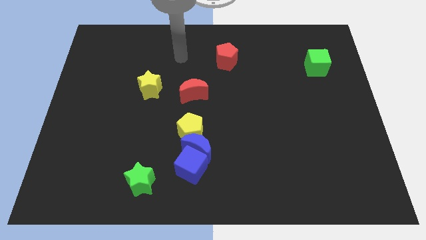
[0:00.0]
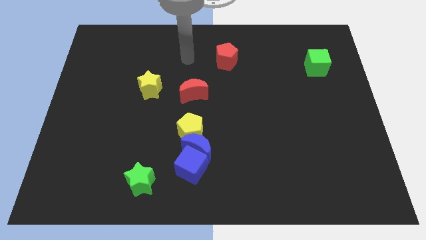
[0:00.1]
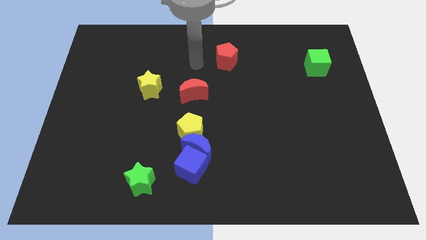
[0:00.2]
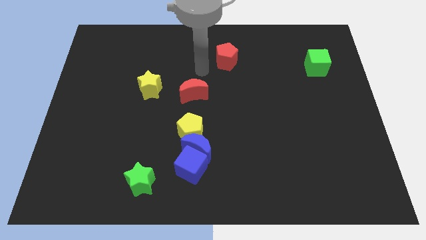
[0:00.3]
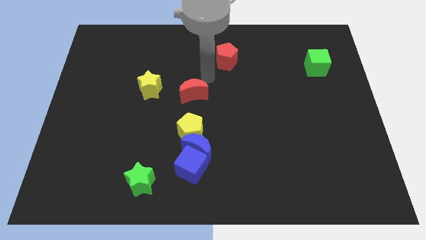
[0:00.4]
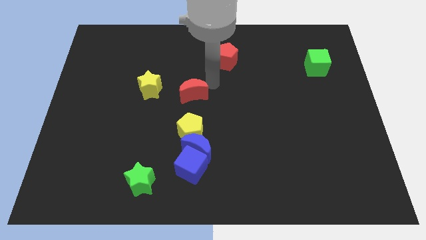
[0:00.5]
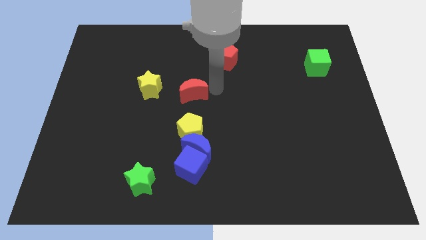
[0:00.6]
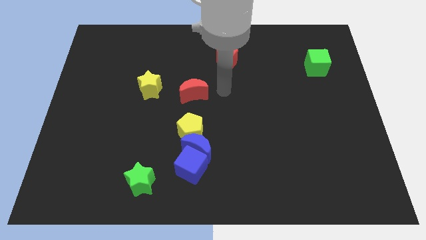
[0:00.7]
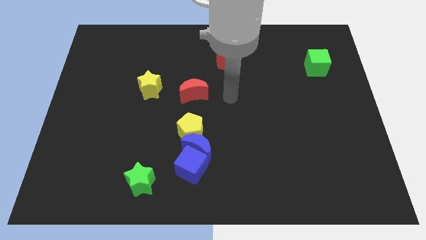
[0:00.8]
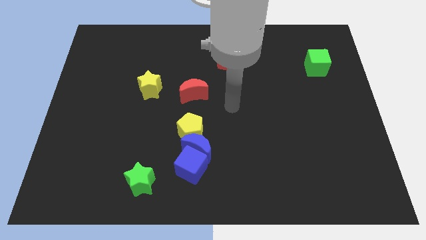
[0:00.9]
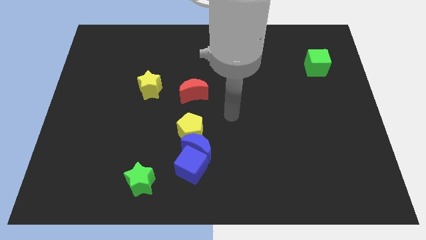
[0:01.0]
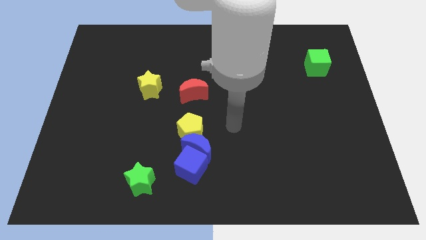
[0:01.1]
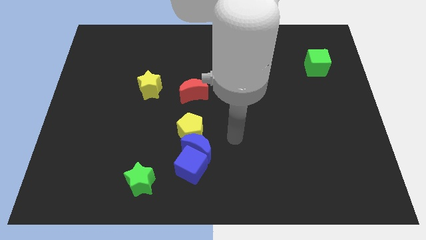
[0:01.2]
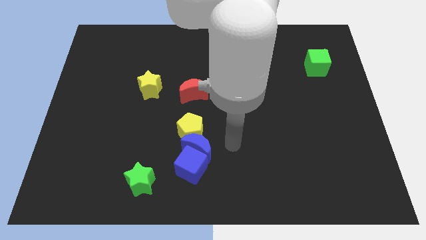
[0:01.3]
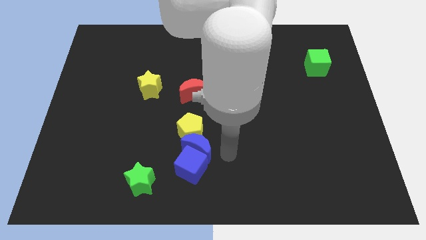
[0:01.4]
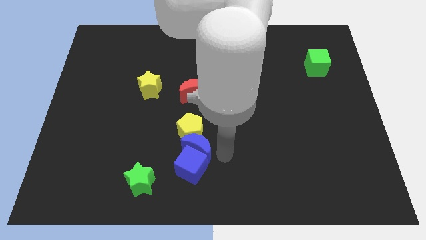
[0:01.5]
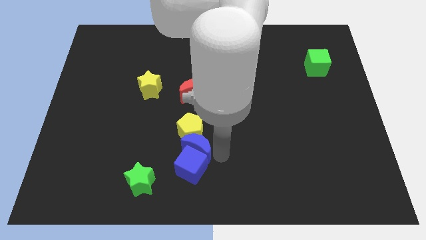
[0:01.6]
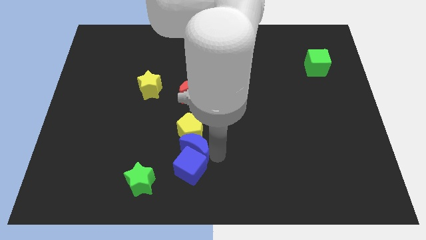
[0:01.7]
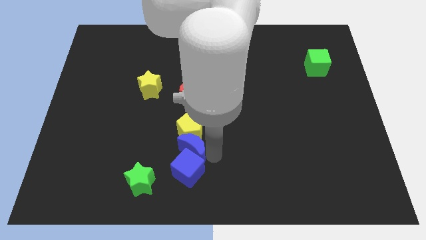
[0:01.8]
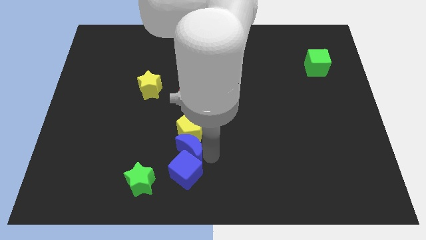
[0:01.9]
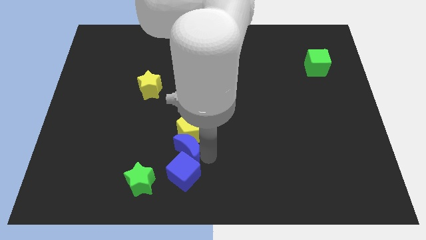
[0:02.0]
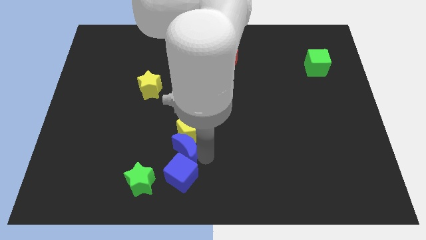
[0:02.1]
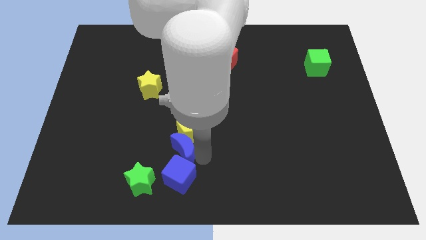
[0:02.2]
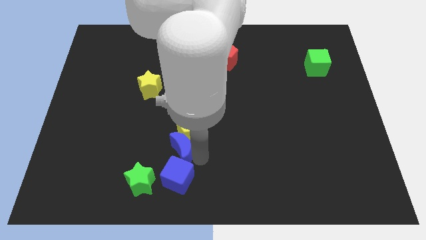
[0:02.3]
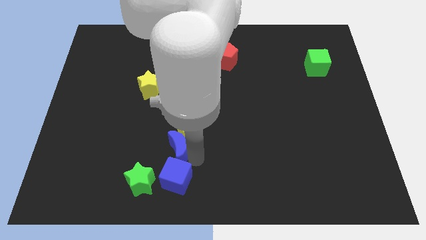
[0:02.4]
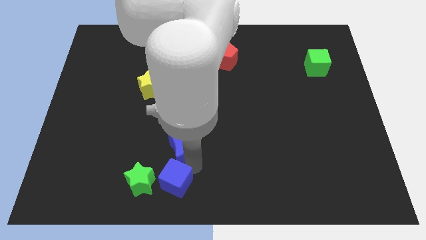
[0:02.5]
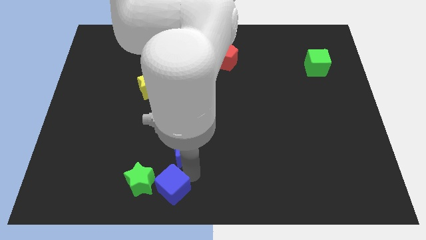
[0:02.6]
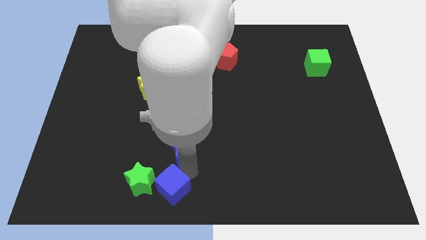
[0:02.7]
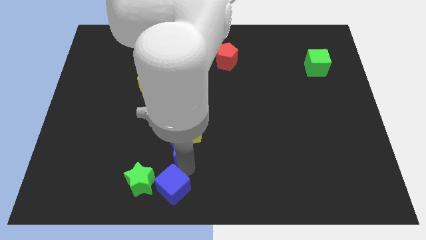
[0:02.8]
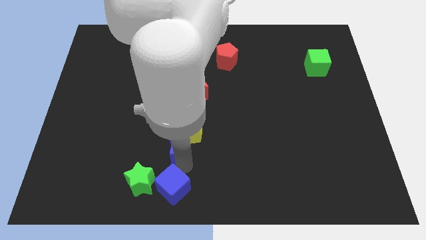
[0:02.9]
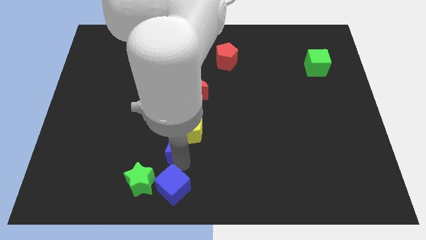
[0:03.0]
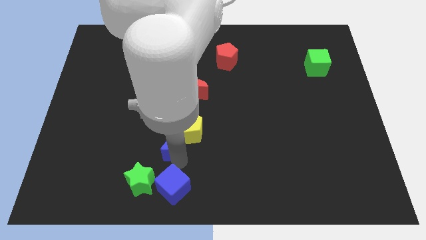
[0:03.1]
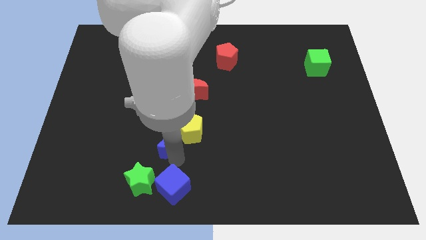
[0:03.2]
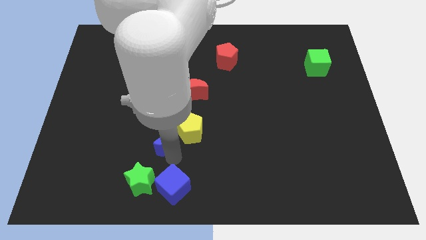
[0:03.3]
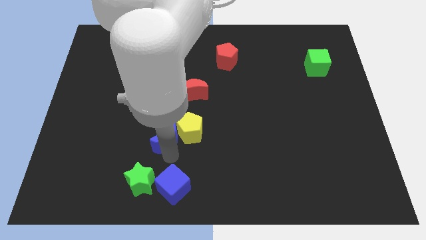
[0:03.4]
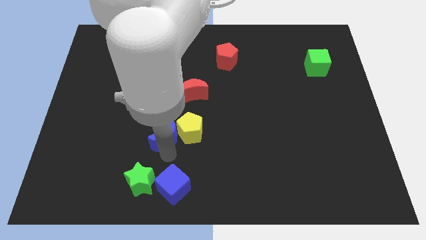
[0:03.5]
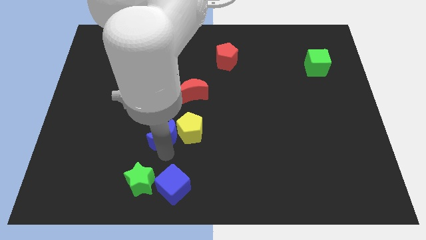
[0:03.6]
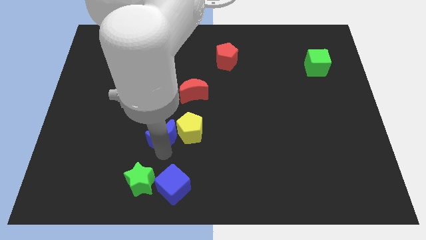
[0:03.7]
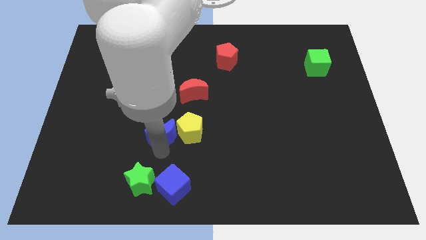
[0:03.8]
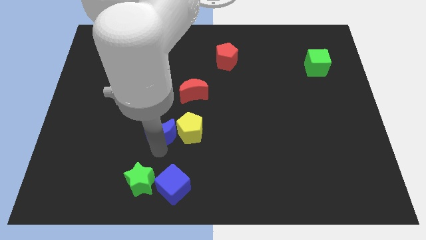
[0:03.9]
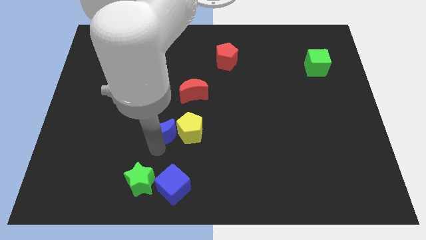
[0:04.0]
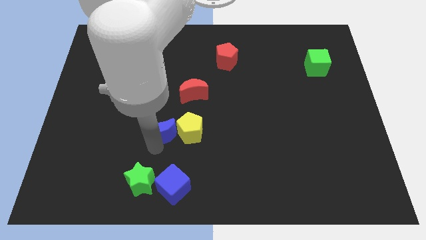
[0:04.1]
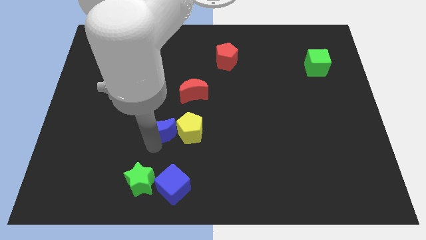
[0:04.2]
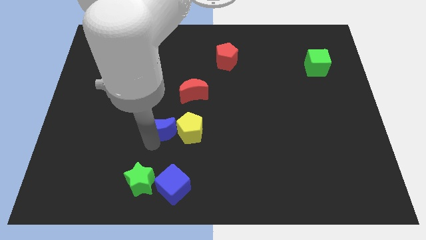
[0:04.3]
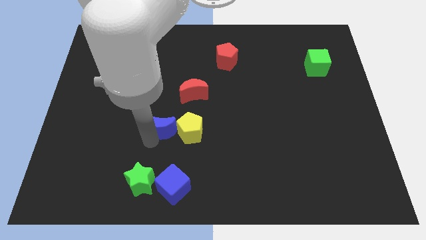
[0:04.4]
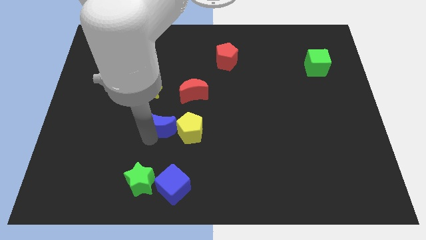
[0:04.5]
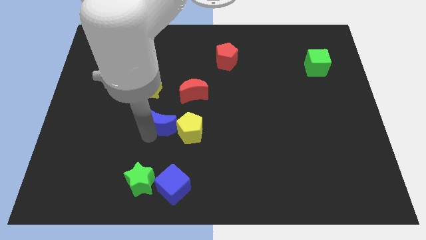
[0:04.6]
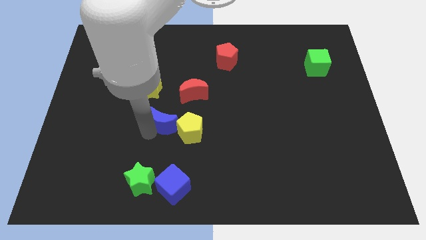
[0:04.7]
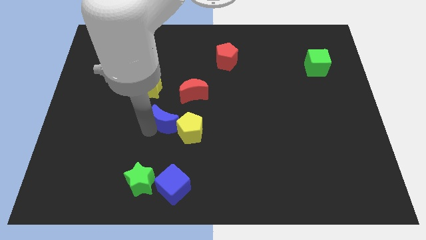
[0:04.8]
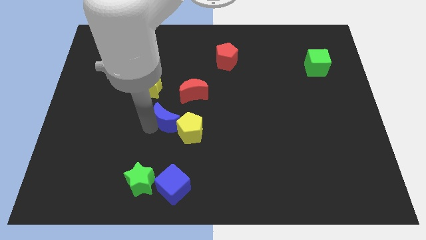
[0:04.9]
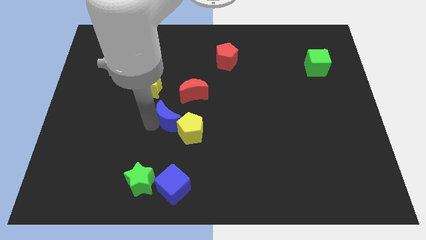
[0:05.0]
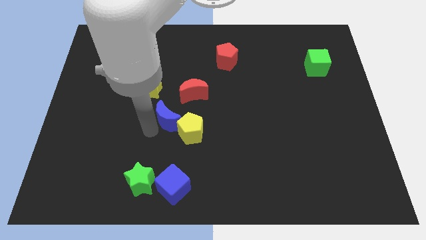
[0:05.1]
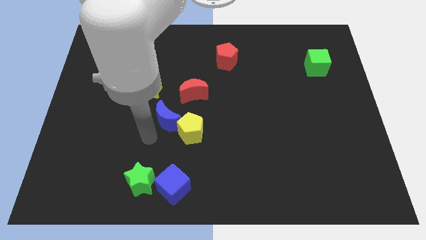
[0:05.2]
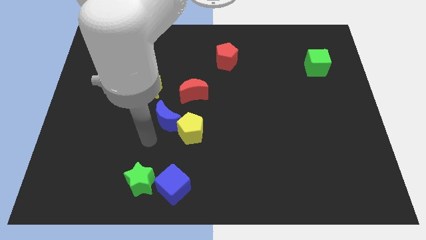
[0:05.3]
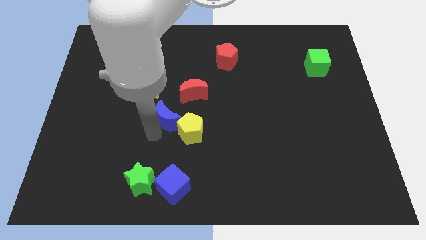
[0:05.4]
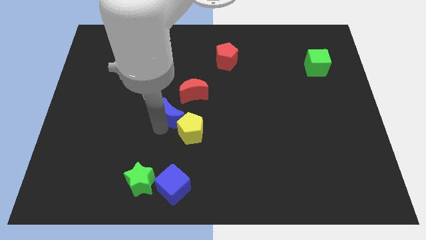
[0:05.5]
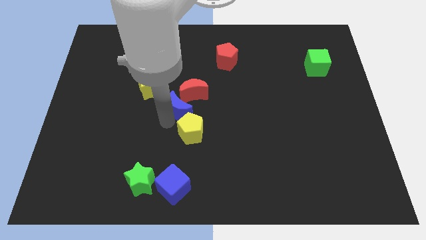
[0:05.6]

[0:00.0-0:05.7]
put the blue moon close to the red moon

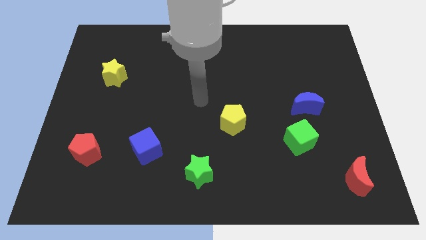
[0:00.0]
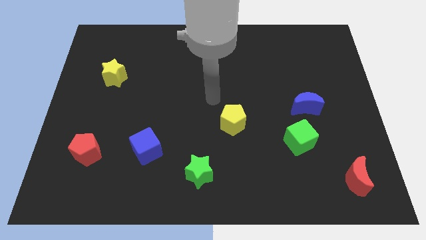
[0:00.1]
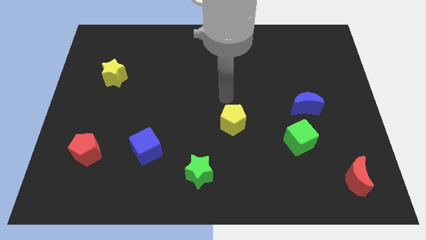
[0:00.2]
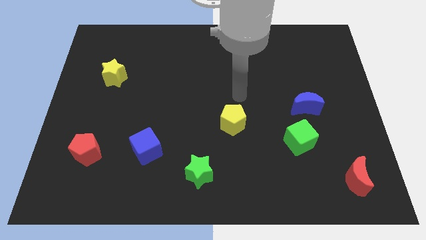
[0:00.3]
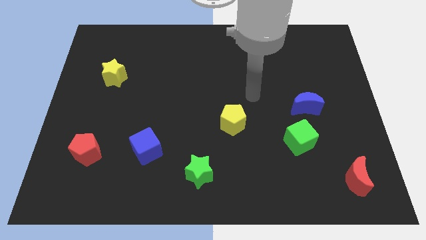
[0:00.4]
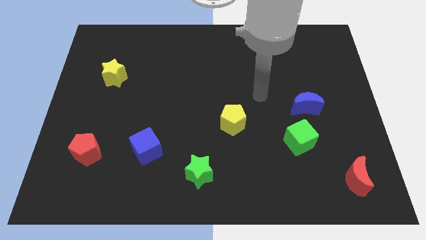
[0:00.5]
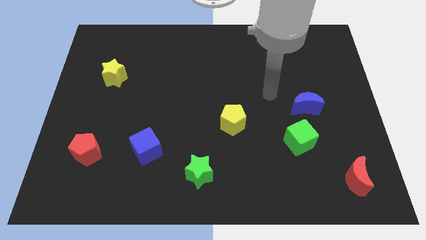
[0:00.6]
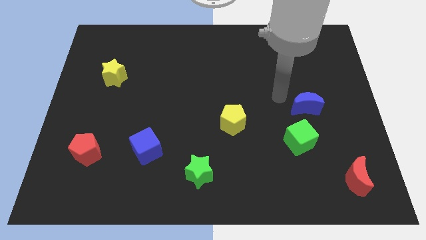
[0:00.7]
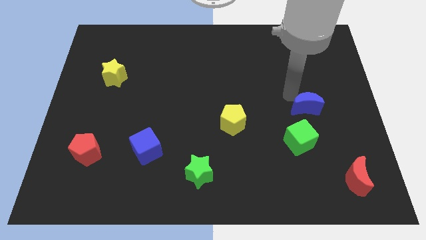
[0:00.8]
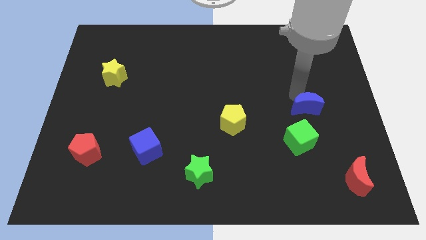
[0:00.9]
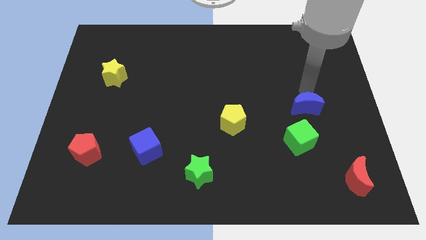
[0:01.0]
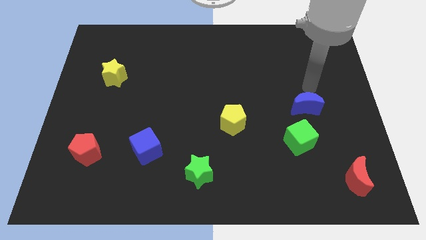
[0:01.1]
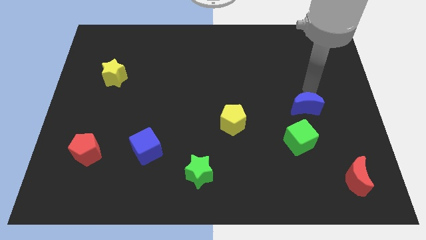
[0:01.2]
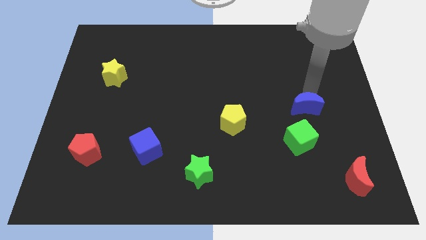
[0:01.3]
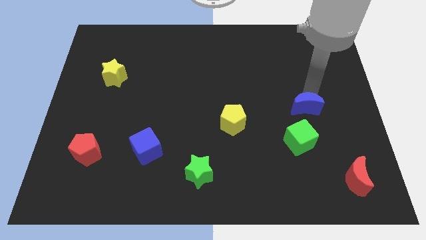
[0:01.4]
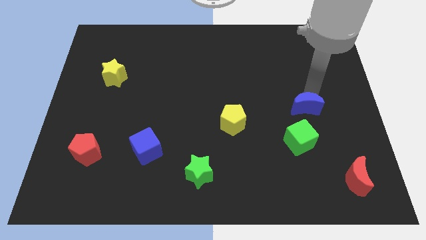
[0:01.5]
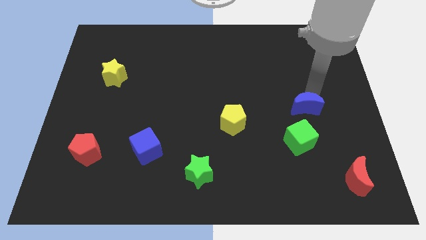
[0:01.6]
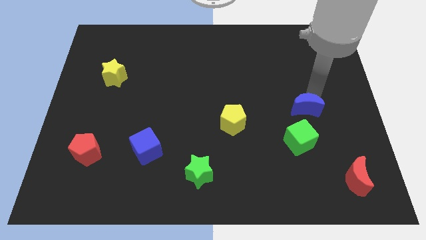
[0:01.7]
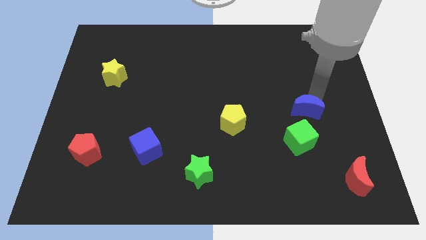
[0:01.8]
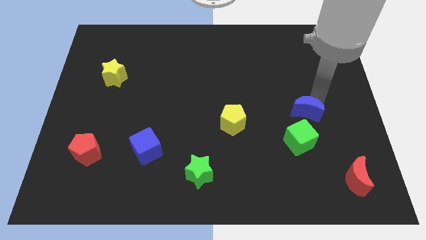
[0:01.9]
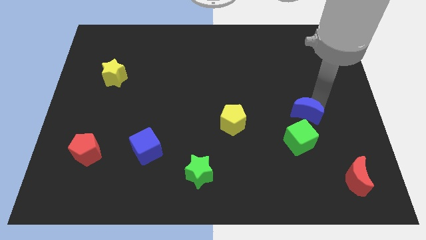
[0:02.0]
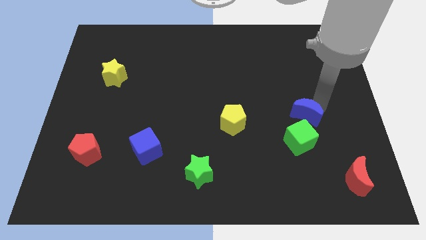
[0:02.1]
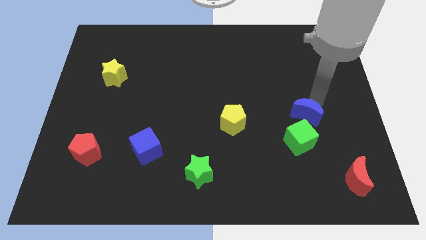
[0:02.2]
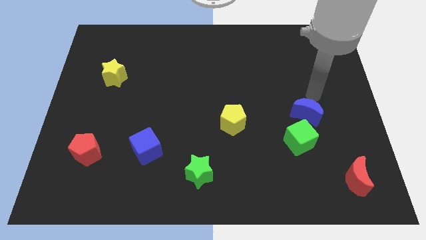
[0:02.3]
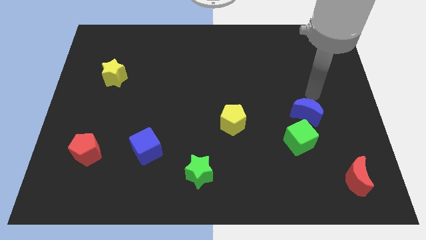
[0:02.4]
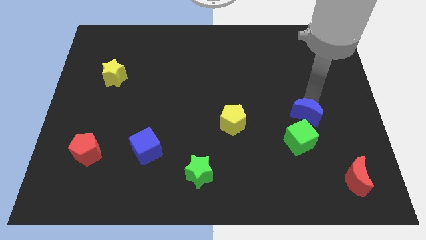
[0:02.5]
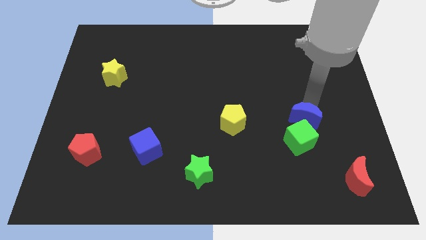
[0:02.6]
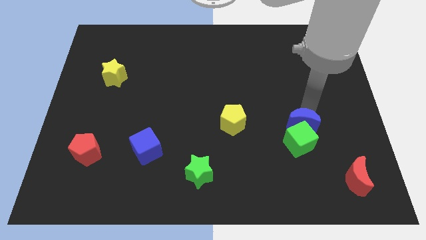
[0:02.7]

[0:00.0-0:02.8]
put the blue moon towards the green cube
